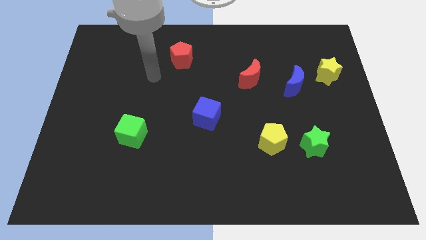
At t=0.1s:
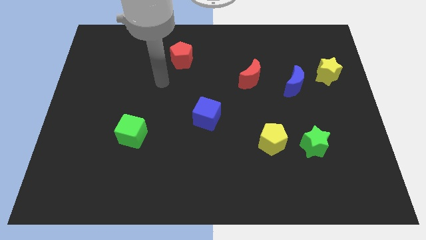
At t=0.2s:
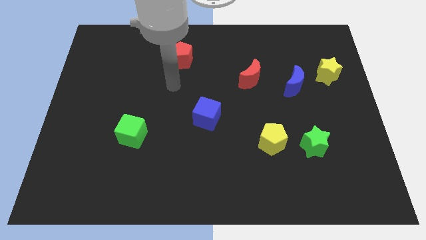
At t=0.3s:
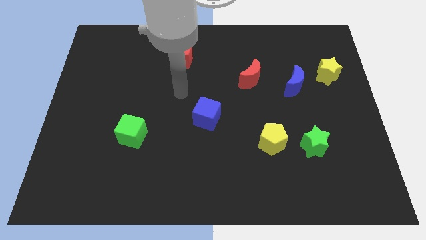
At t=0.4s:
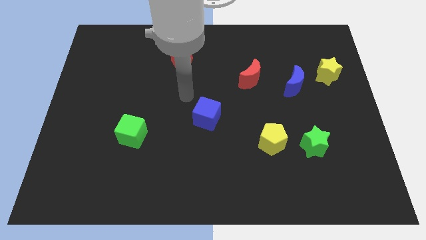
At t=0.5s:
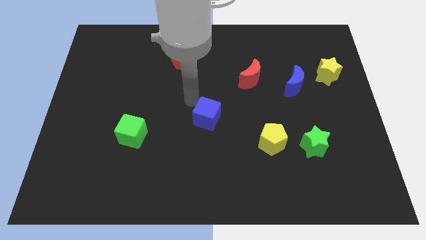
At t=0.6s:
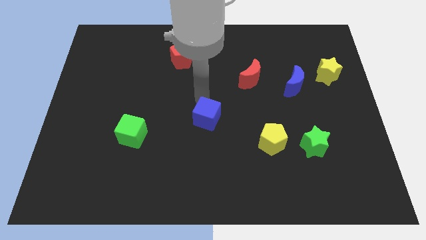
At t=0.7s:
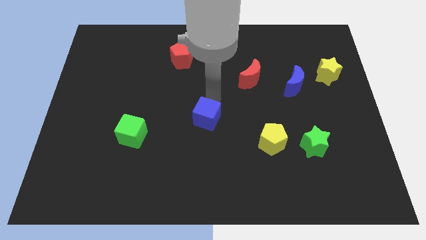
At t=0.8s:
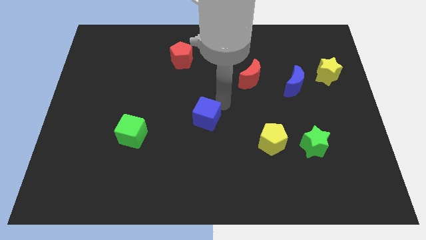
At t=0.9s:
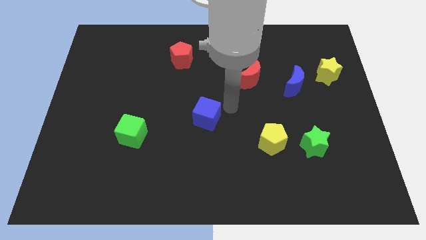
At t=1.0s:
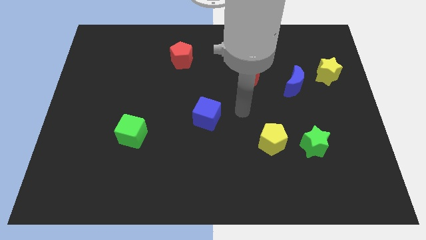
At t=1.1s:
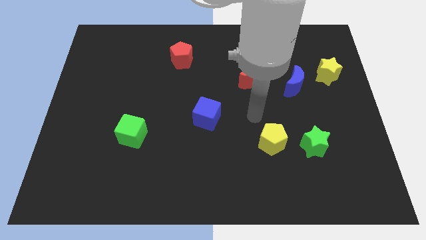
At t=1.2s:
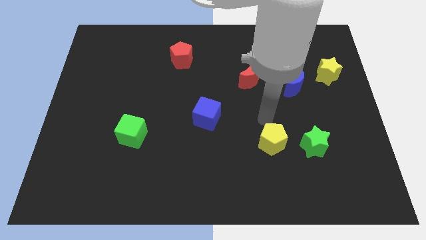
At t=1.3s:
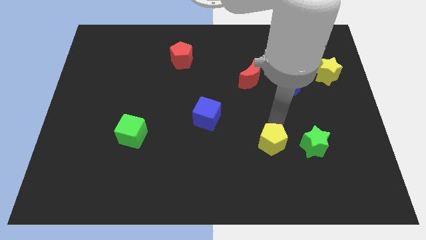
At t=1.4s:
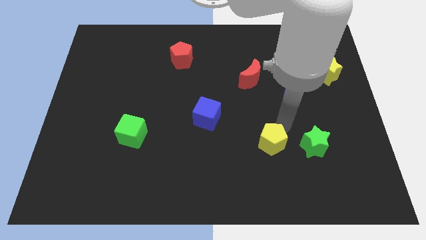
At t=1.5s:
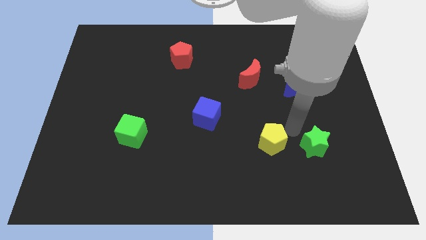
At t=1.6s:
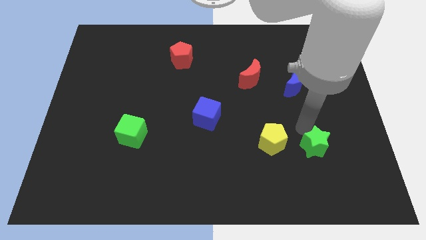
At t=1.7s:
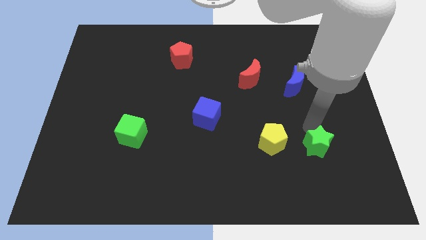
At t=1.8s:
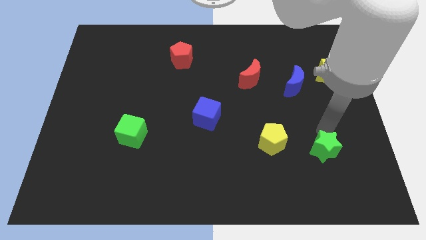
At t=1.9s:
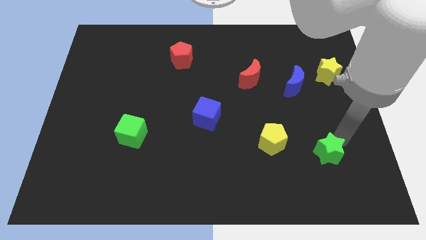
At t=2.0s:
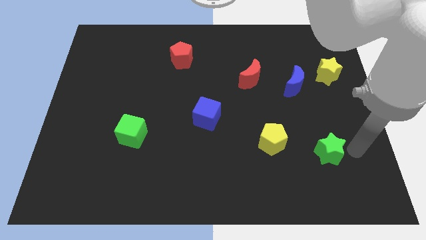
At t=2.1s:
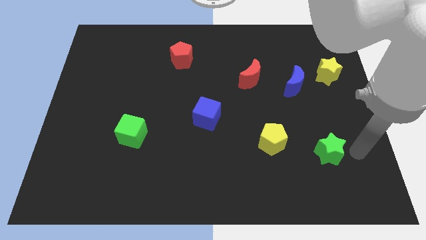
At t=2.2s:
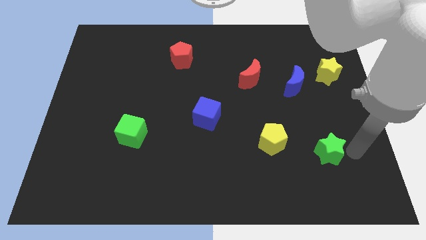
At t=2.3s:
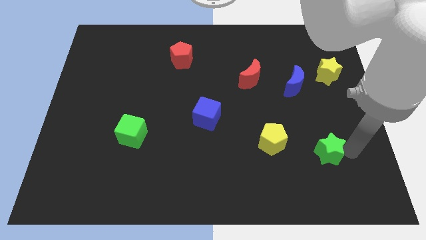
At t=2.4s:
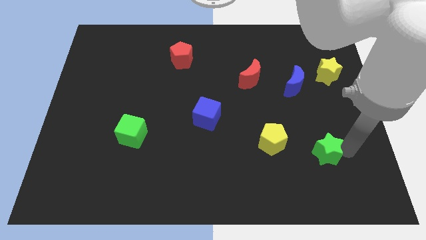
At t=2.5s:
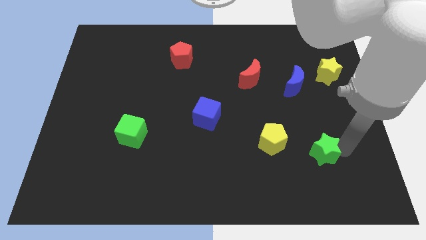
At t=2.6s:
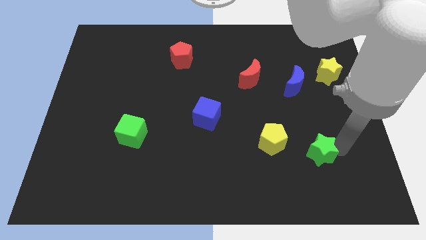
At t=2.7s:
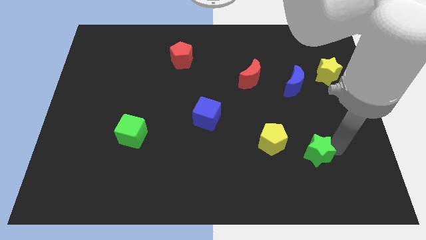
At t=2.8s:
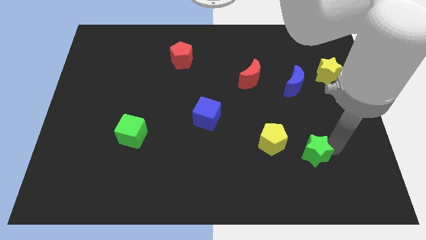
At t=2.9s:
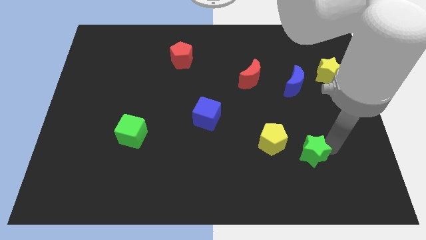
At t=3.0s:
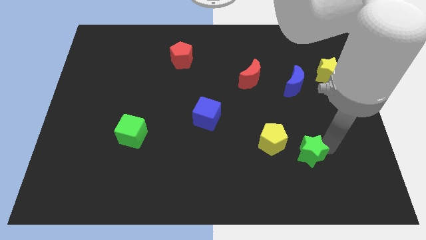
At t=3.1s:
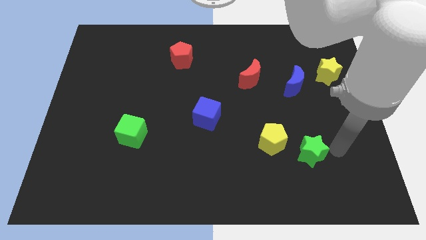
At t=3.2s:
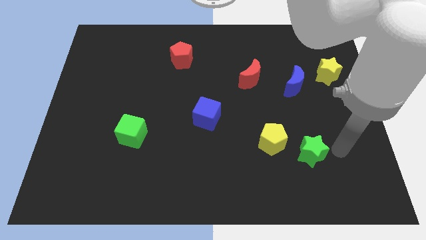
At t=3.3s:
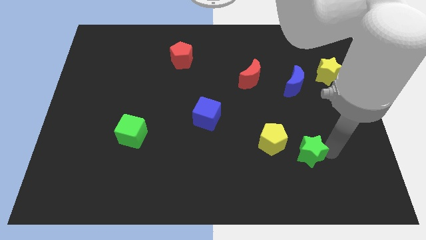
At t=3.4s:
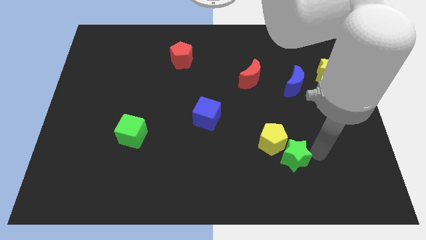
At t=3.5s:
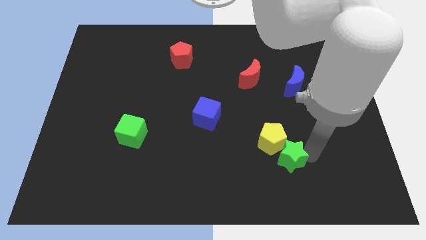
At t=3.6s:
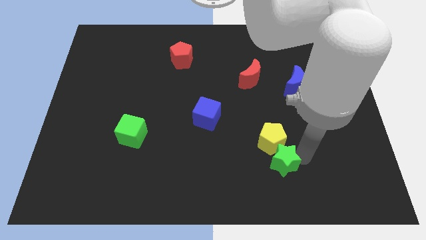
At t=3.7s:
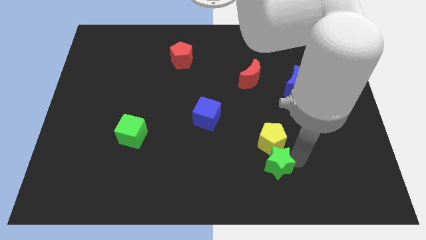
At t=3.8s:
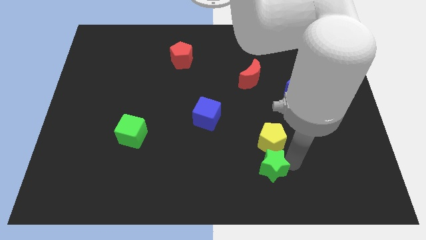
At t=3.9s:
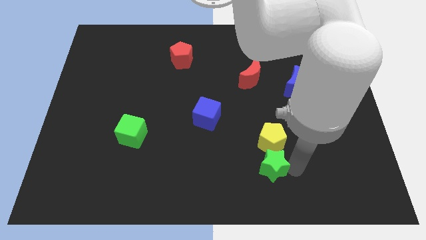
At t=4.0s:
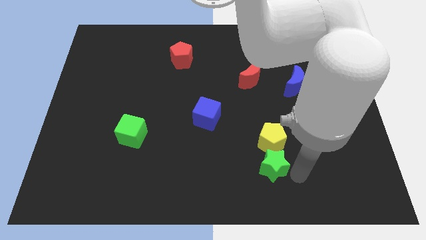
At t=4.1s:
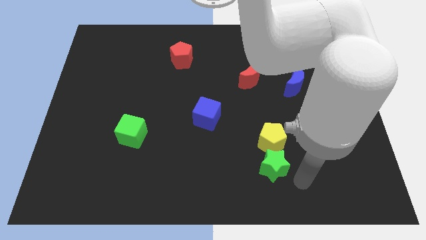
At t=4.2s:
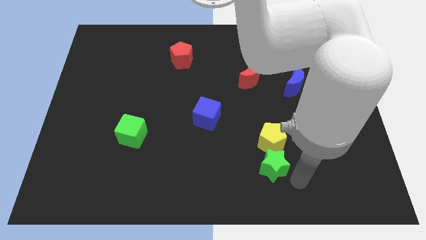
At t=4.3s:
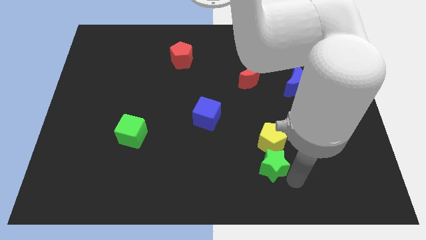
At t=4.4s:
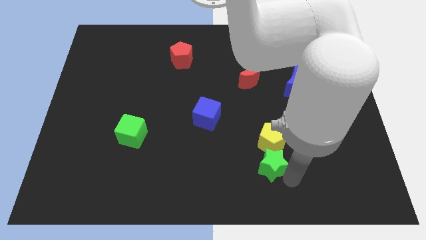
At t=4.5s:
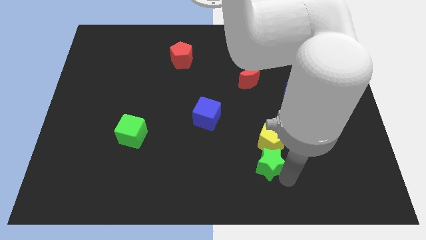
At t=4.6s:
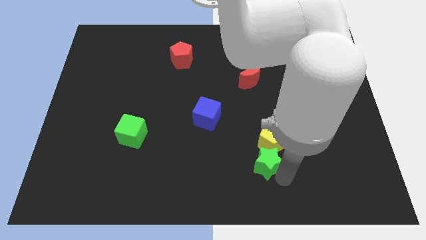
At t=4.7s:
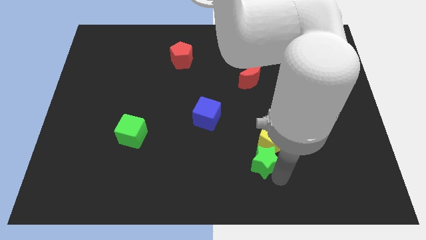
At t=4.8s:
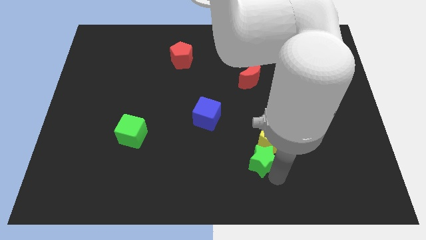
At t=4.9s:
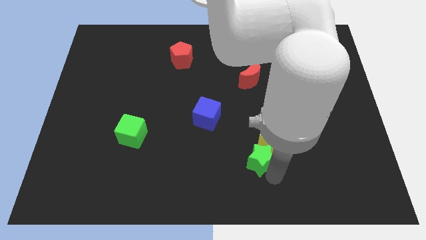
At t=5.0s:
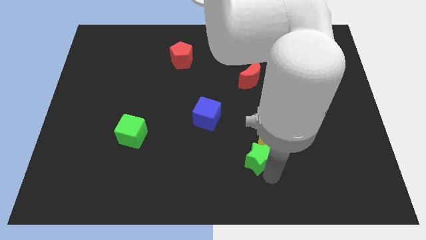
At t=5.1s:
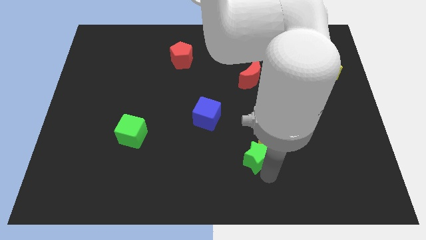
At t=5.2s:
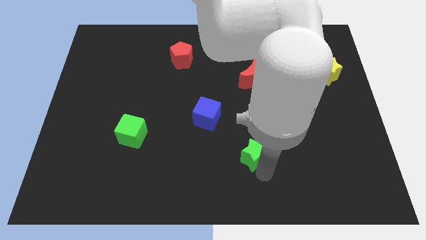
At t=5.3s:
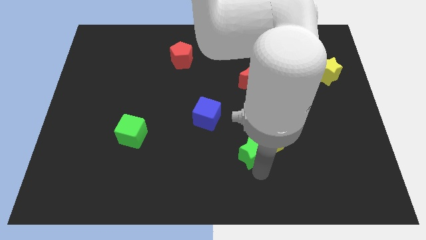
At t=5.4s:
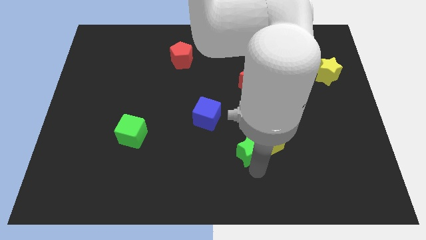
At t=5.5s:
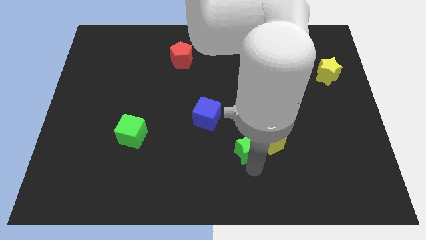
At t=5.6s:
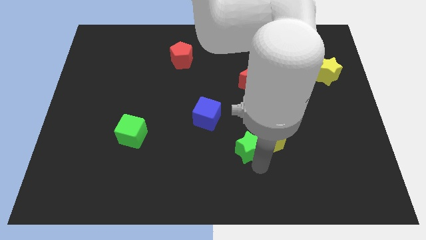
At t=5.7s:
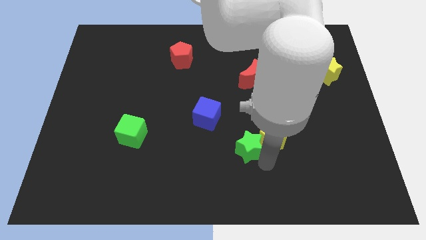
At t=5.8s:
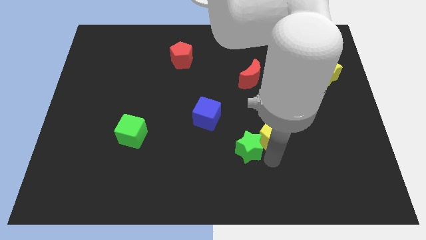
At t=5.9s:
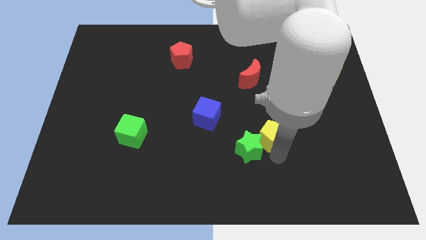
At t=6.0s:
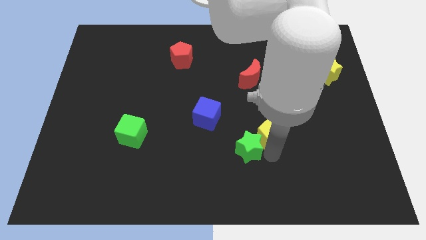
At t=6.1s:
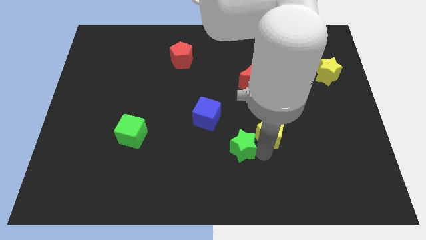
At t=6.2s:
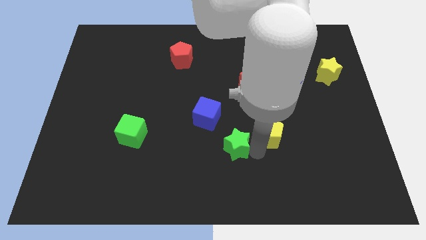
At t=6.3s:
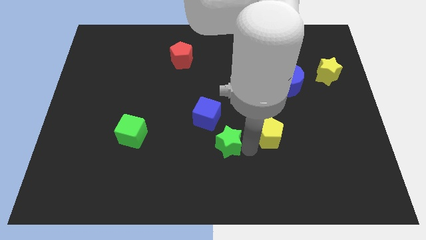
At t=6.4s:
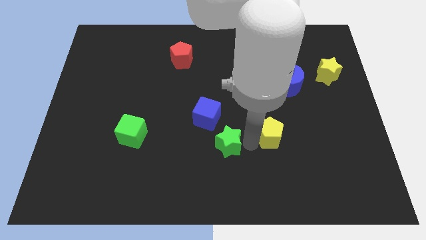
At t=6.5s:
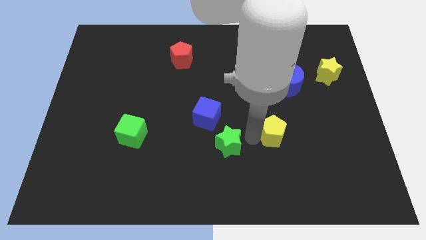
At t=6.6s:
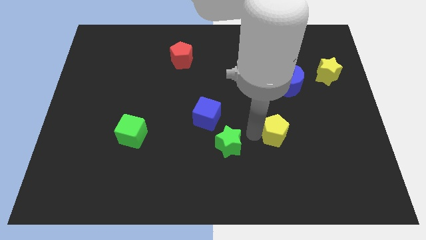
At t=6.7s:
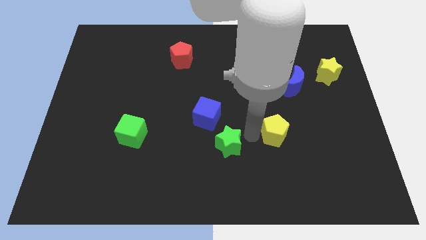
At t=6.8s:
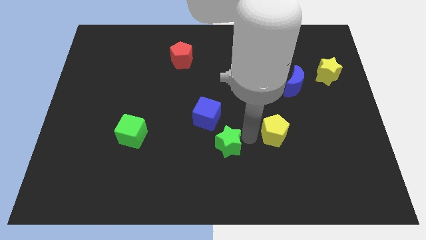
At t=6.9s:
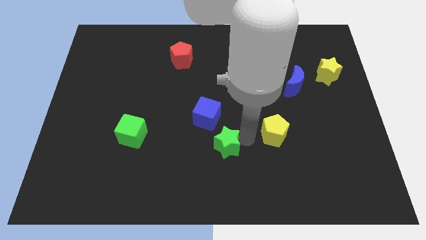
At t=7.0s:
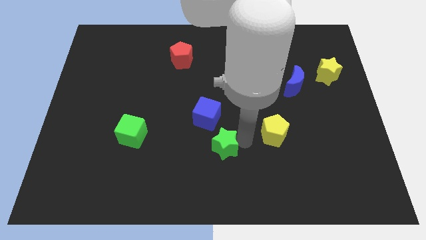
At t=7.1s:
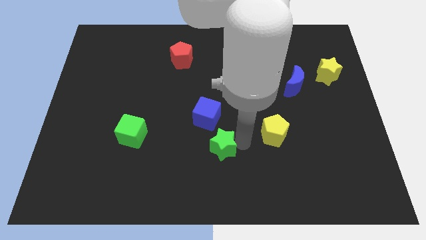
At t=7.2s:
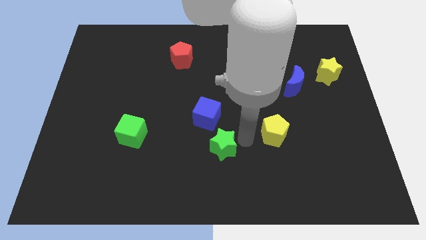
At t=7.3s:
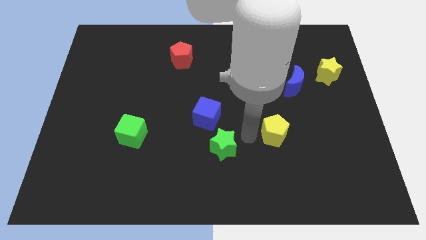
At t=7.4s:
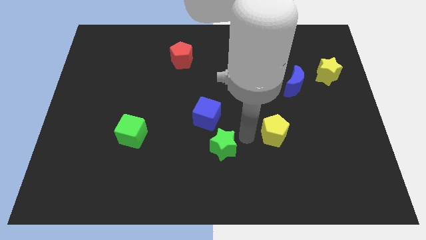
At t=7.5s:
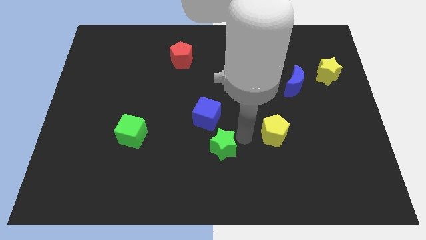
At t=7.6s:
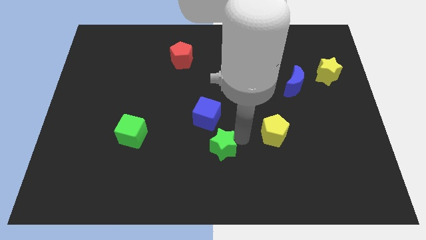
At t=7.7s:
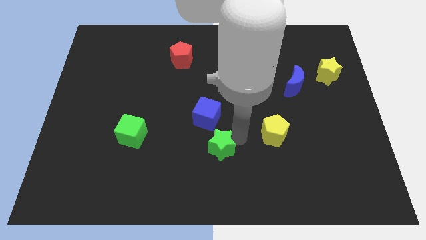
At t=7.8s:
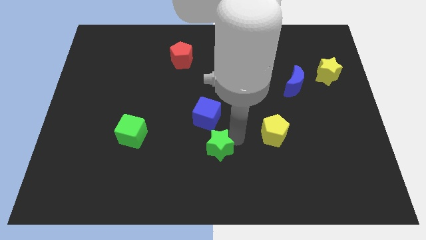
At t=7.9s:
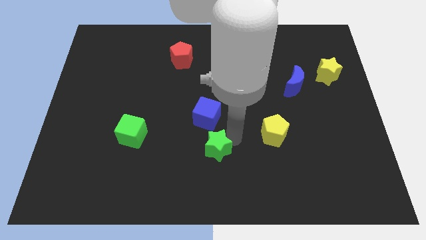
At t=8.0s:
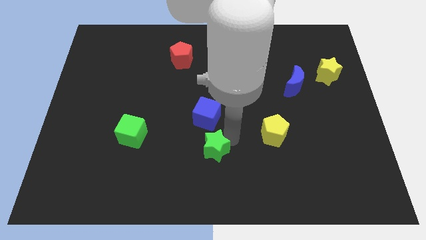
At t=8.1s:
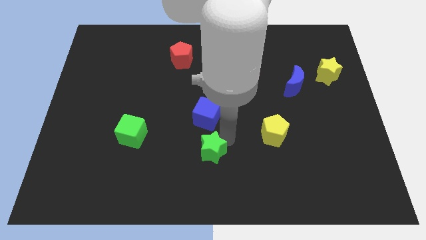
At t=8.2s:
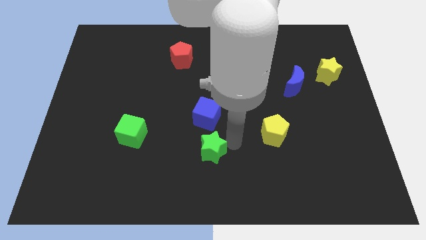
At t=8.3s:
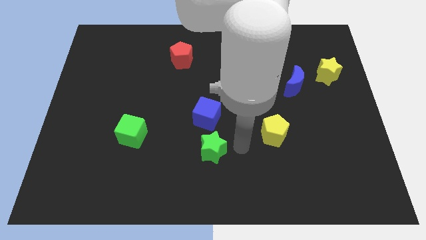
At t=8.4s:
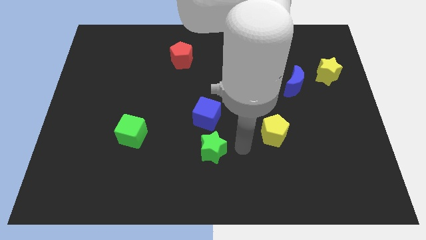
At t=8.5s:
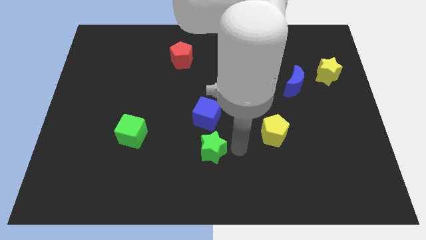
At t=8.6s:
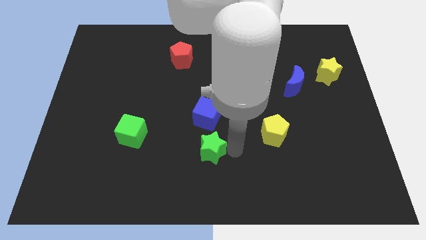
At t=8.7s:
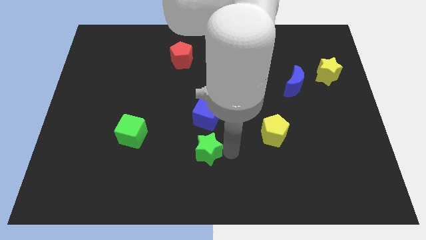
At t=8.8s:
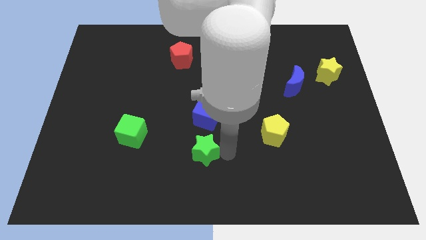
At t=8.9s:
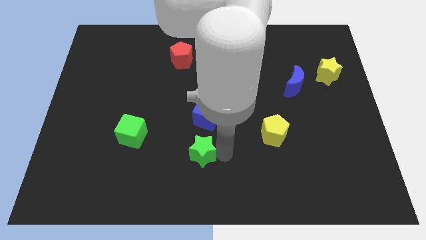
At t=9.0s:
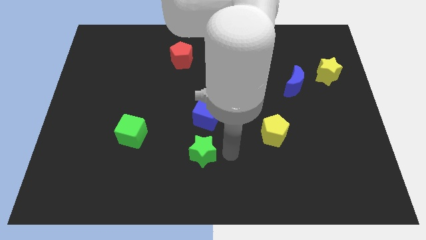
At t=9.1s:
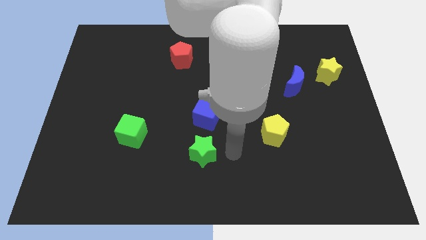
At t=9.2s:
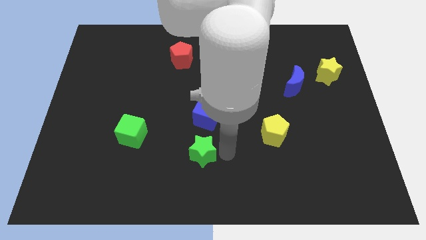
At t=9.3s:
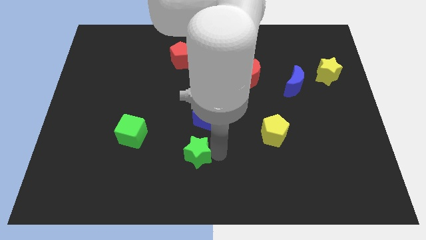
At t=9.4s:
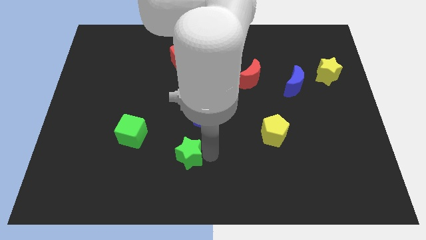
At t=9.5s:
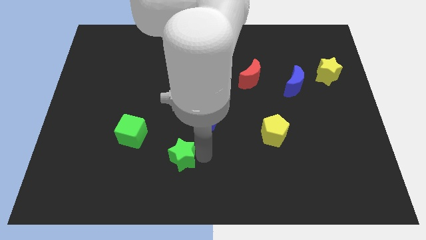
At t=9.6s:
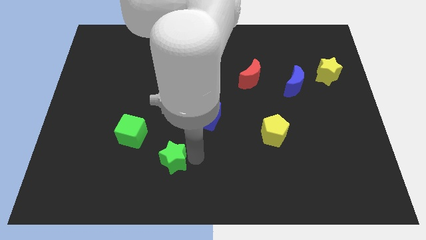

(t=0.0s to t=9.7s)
slide the green star to the bottom right side of the green cube
